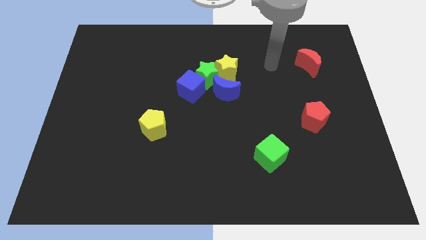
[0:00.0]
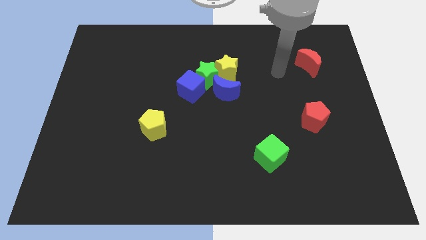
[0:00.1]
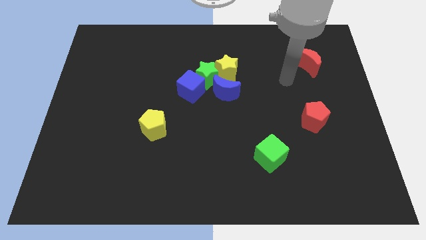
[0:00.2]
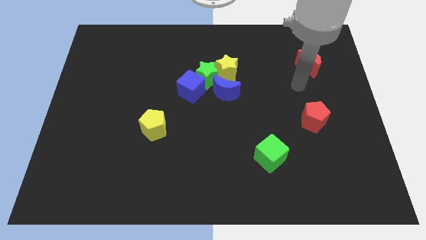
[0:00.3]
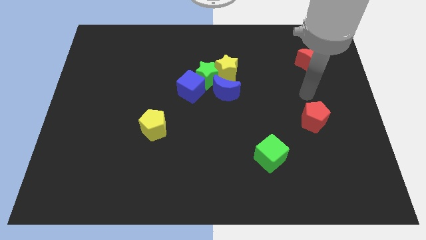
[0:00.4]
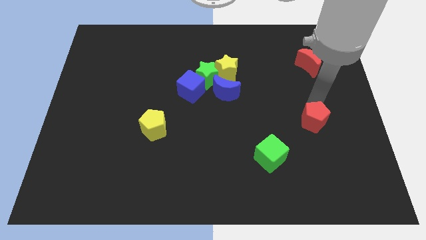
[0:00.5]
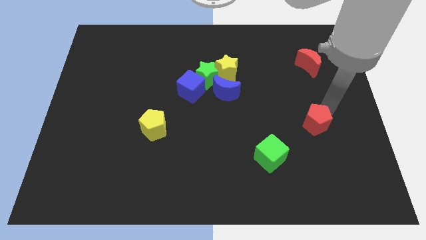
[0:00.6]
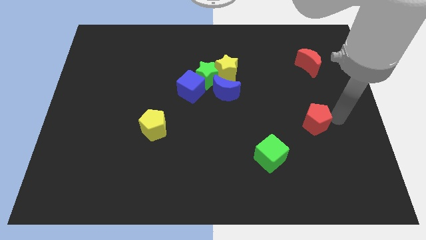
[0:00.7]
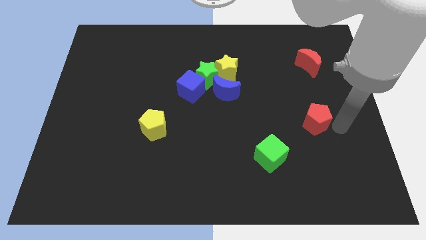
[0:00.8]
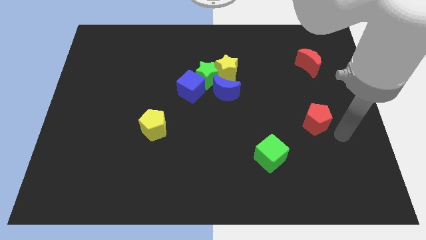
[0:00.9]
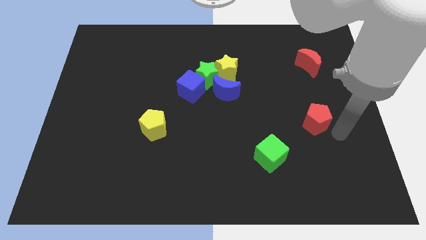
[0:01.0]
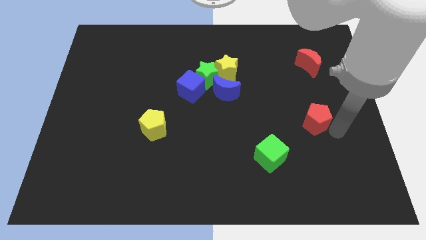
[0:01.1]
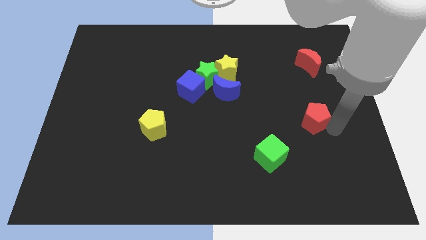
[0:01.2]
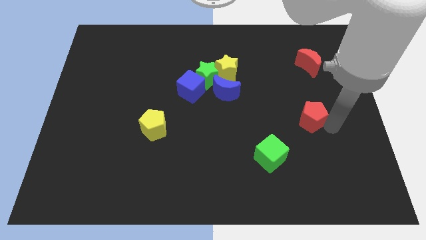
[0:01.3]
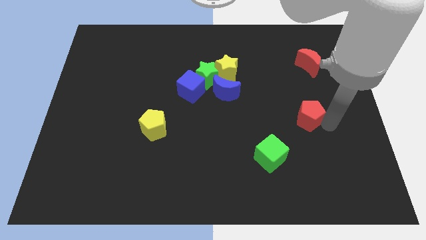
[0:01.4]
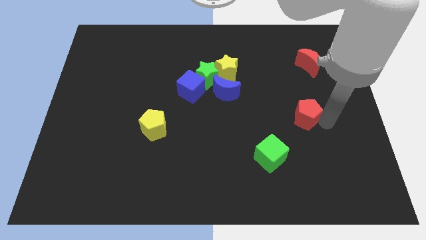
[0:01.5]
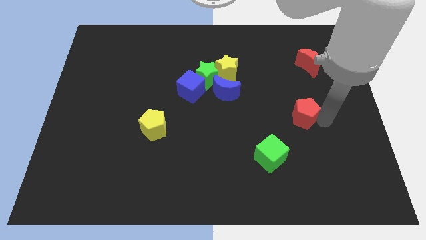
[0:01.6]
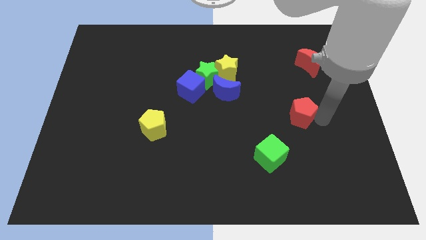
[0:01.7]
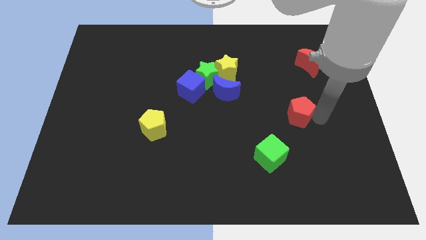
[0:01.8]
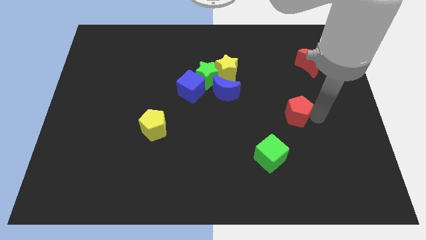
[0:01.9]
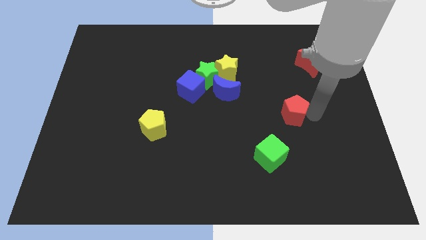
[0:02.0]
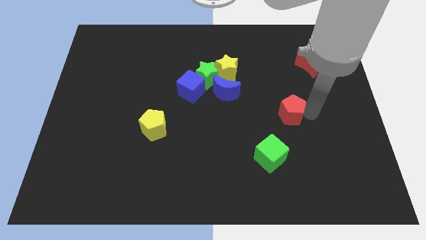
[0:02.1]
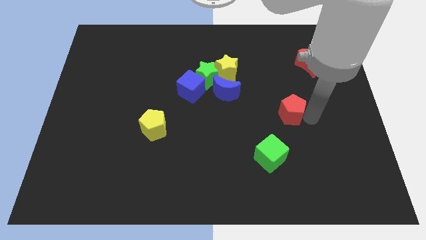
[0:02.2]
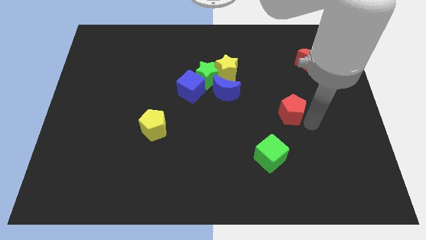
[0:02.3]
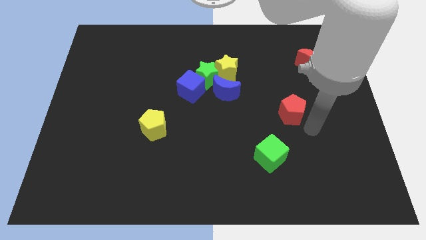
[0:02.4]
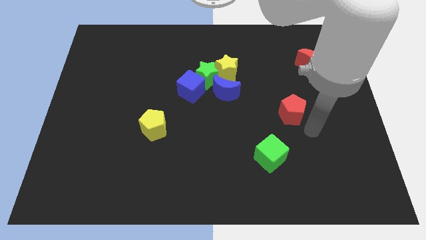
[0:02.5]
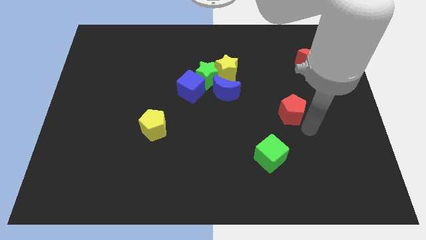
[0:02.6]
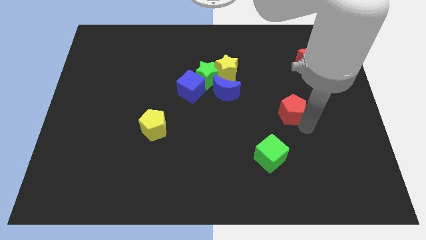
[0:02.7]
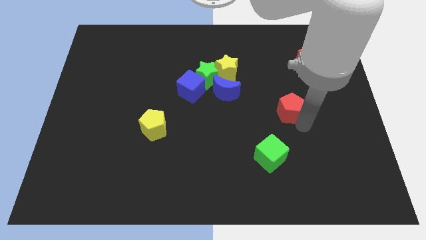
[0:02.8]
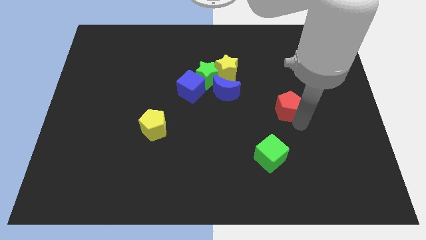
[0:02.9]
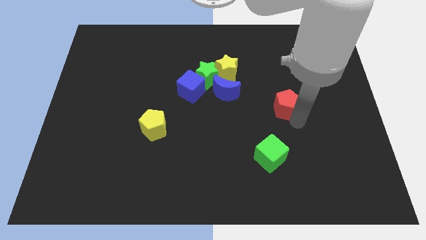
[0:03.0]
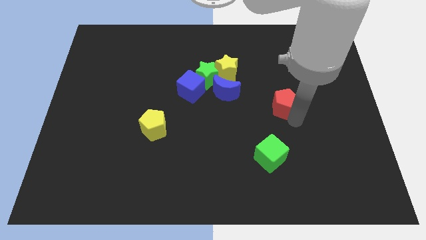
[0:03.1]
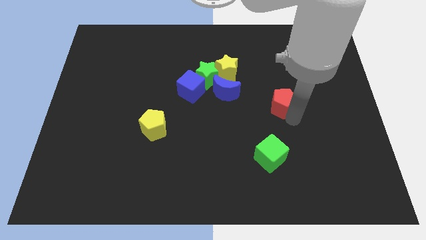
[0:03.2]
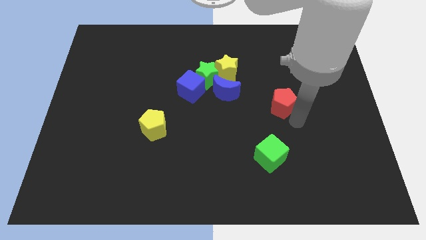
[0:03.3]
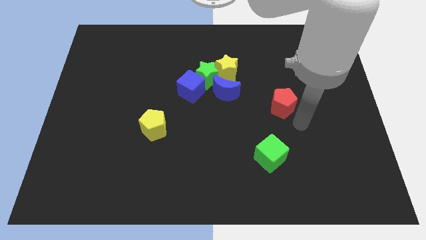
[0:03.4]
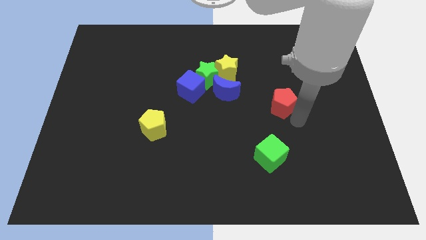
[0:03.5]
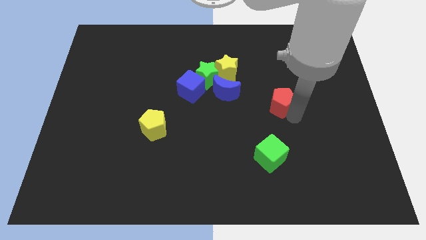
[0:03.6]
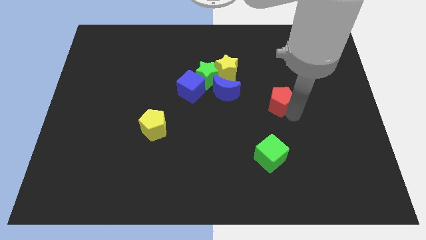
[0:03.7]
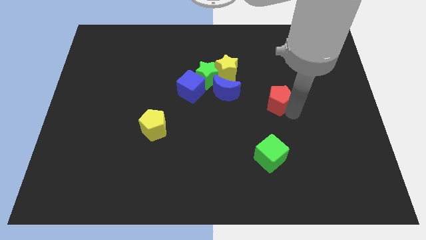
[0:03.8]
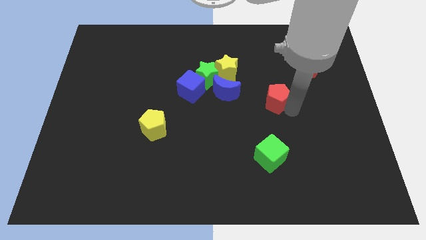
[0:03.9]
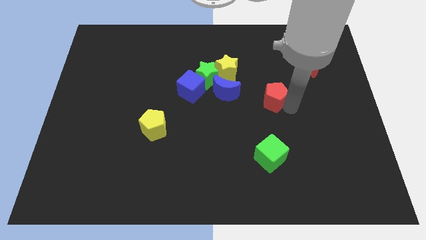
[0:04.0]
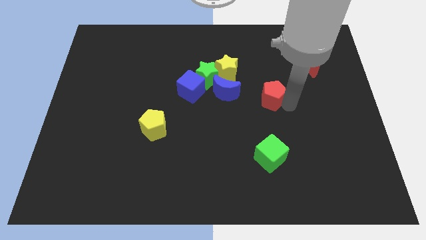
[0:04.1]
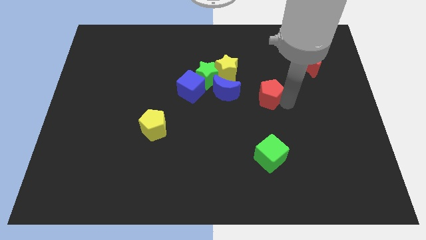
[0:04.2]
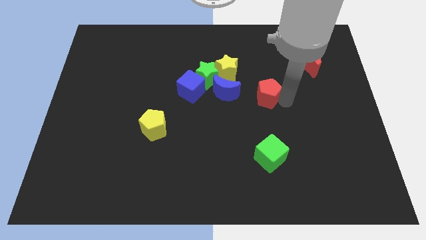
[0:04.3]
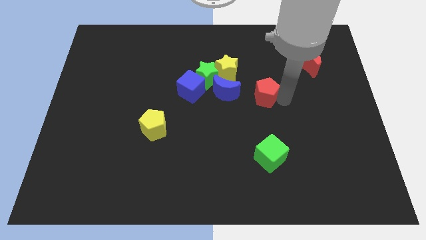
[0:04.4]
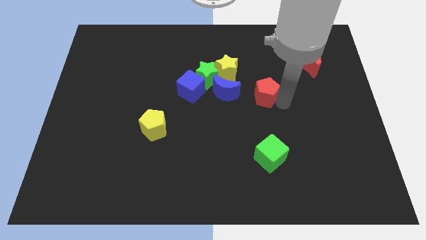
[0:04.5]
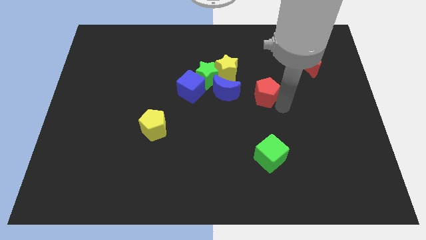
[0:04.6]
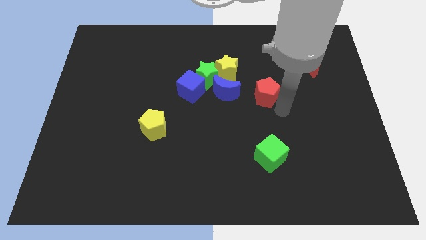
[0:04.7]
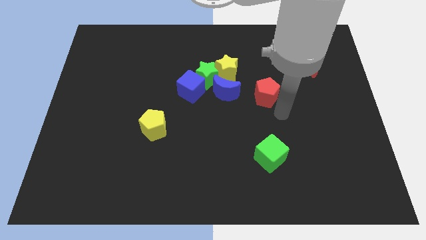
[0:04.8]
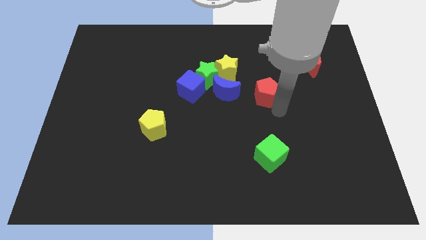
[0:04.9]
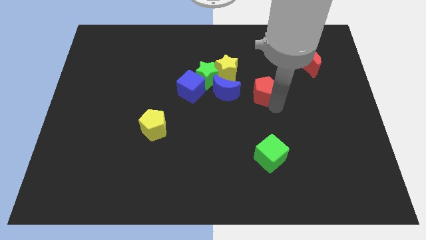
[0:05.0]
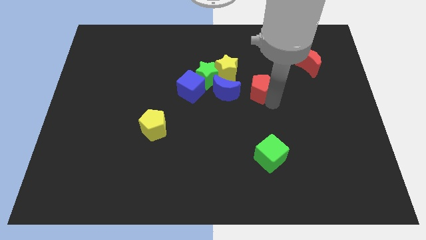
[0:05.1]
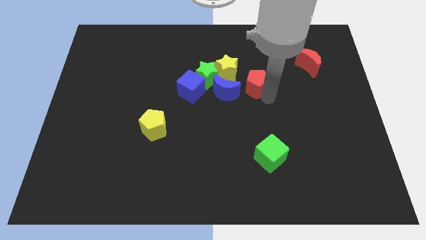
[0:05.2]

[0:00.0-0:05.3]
put the red pentagon to the top right side of the blue moon

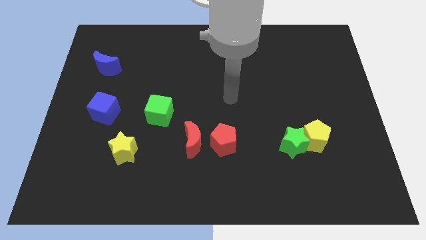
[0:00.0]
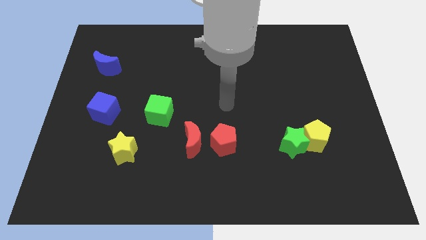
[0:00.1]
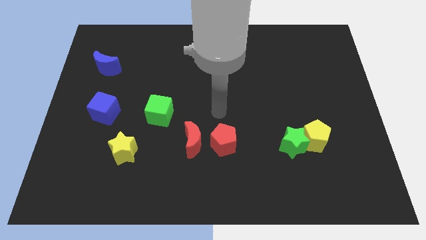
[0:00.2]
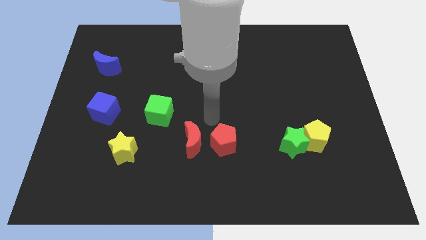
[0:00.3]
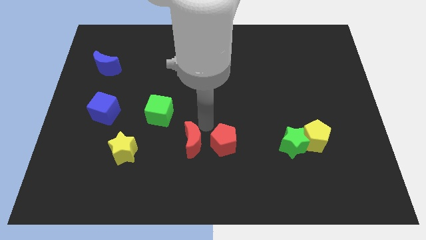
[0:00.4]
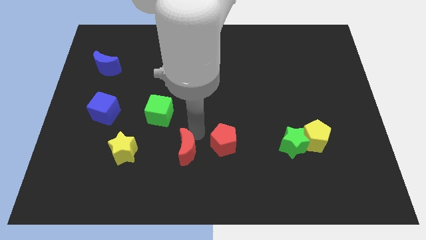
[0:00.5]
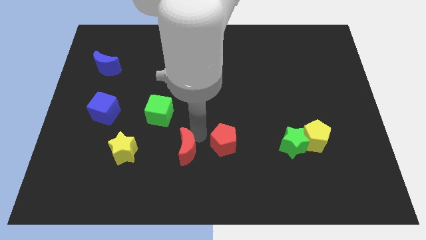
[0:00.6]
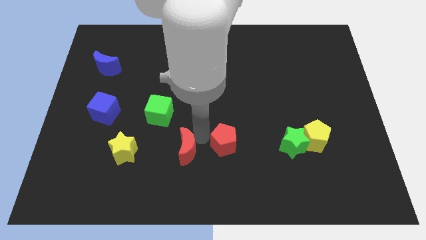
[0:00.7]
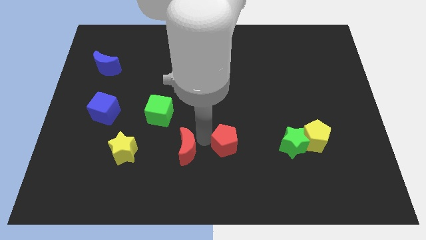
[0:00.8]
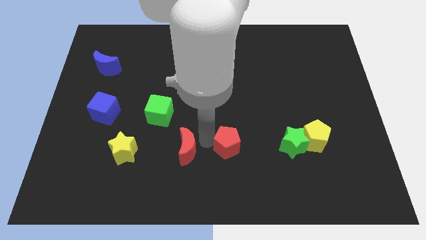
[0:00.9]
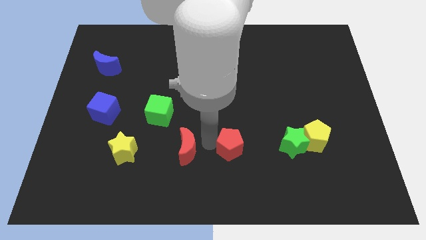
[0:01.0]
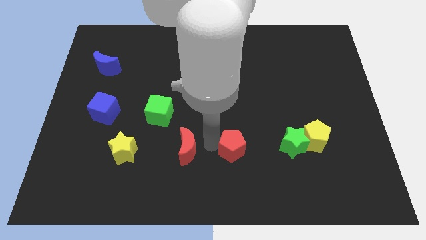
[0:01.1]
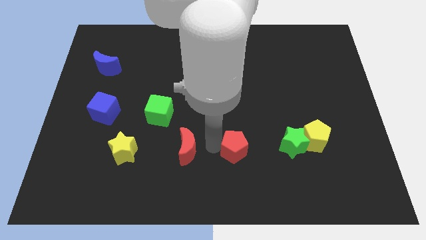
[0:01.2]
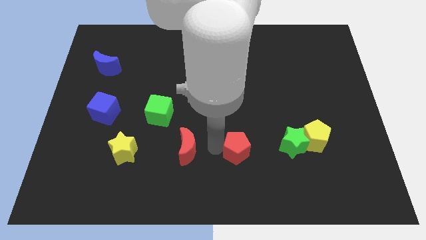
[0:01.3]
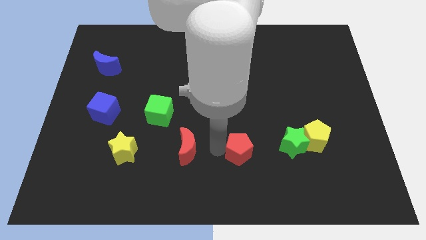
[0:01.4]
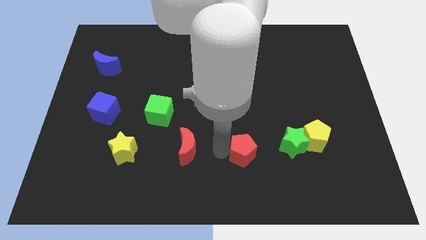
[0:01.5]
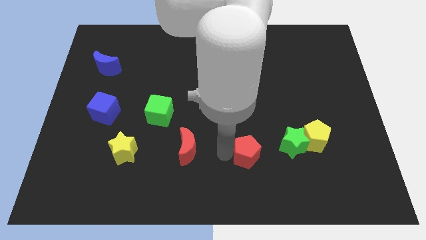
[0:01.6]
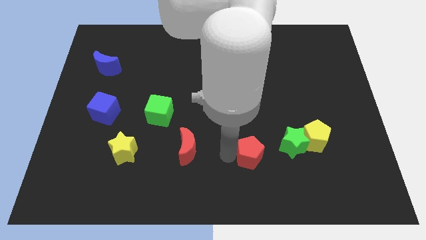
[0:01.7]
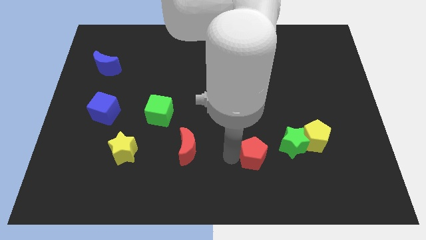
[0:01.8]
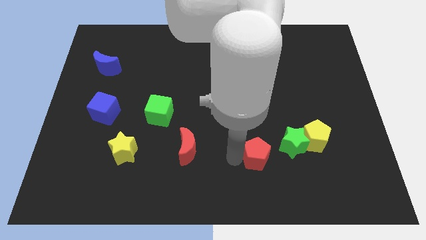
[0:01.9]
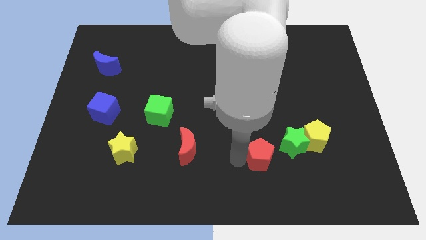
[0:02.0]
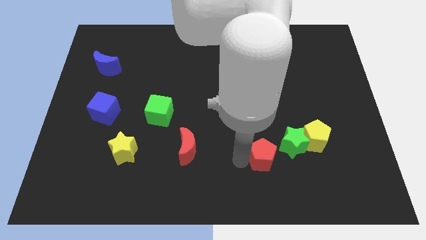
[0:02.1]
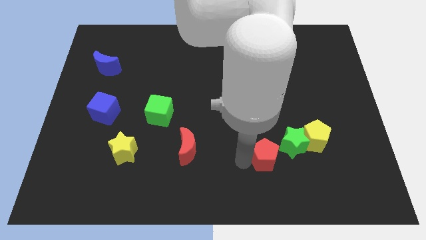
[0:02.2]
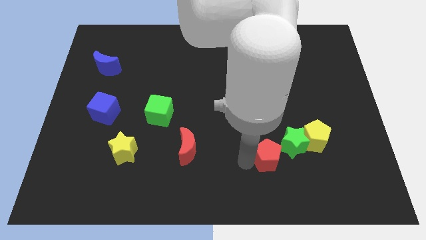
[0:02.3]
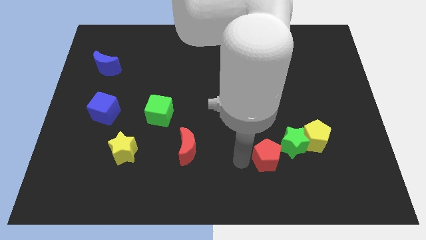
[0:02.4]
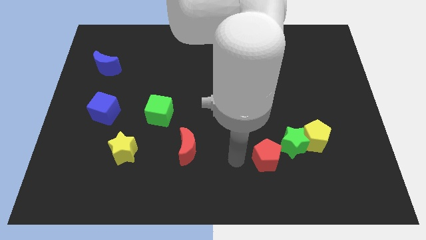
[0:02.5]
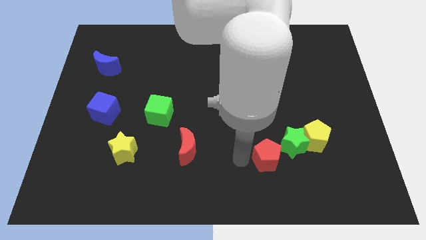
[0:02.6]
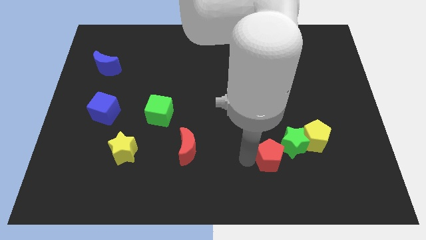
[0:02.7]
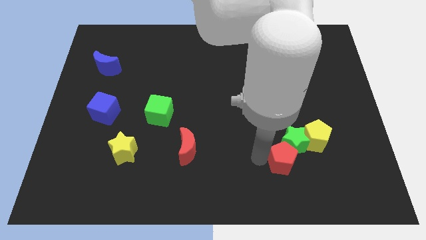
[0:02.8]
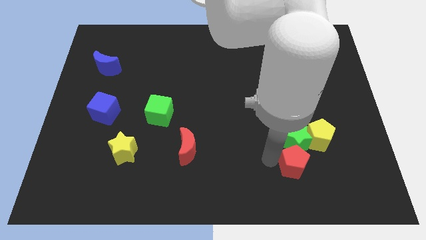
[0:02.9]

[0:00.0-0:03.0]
move the red pentagon to the bottom right of the green star
